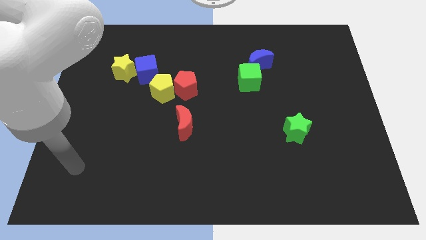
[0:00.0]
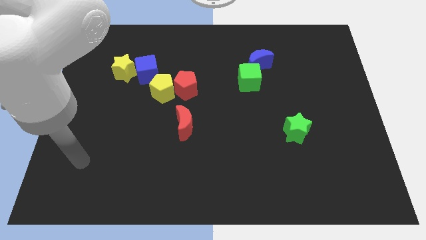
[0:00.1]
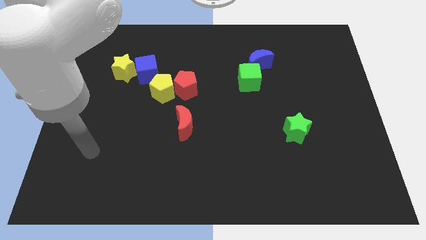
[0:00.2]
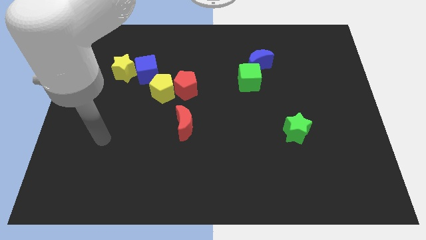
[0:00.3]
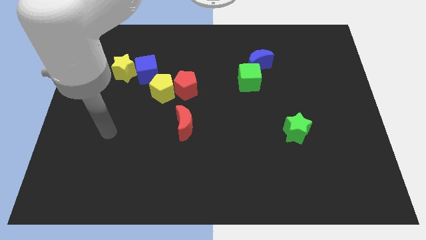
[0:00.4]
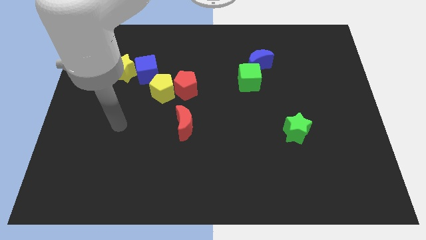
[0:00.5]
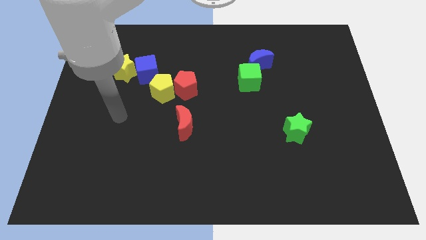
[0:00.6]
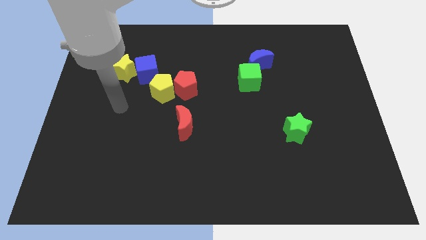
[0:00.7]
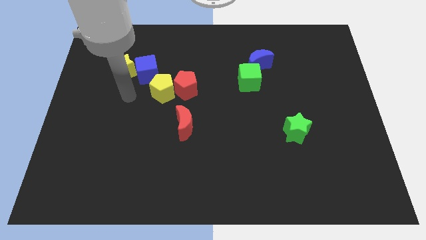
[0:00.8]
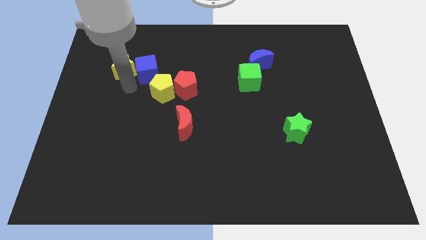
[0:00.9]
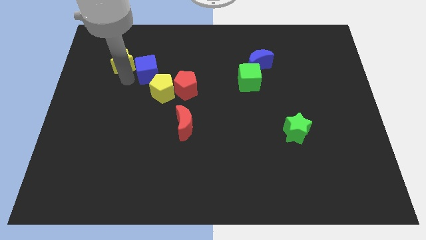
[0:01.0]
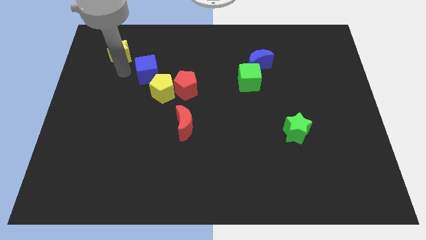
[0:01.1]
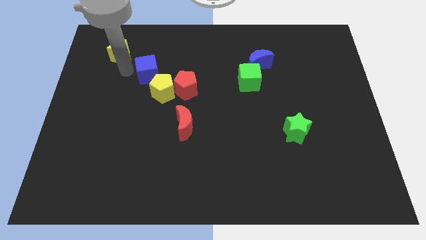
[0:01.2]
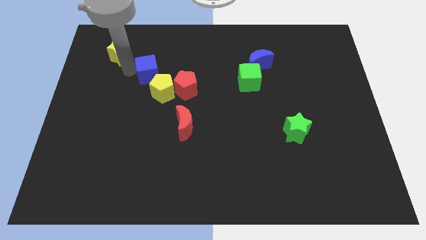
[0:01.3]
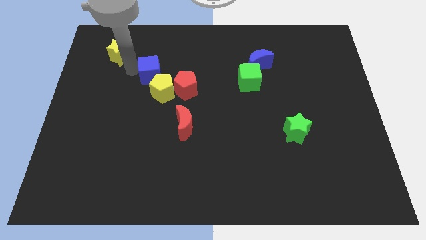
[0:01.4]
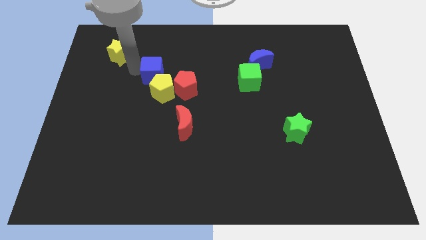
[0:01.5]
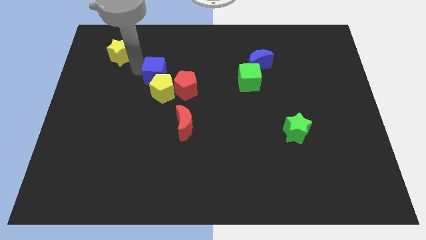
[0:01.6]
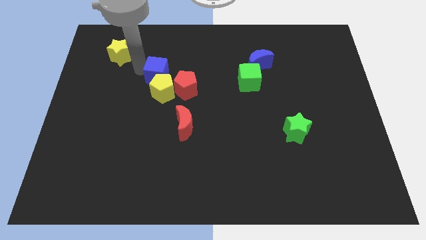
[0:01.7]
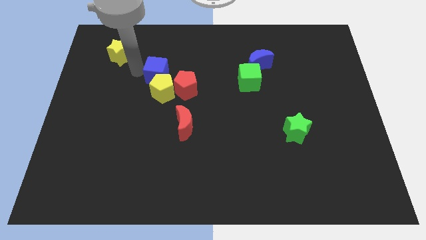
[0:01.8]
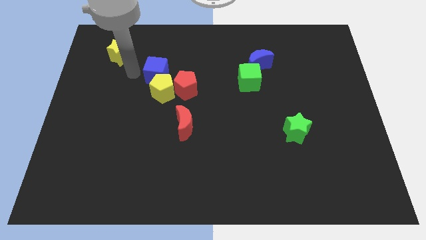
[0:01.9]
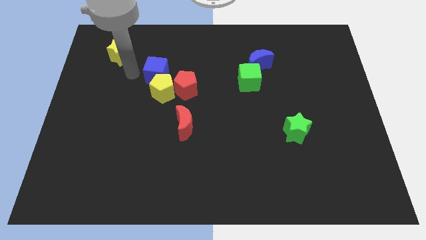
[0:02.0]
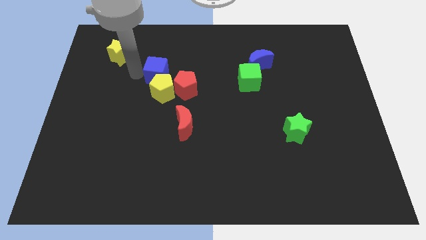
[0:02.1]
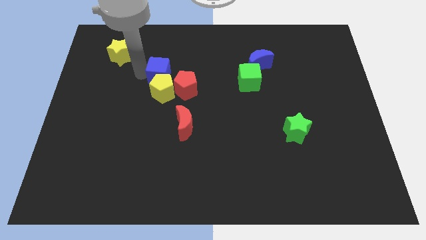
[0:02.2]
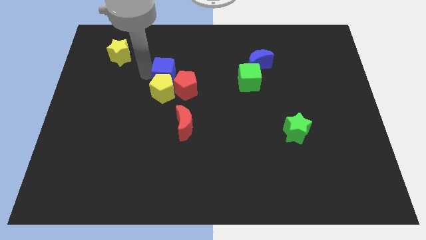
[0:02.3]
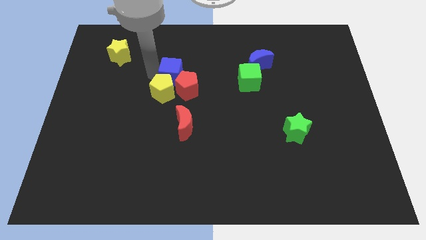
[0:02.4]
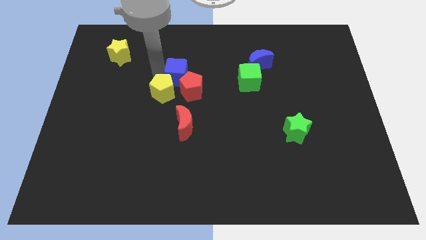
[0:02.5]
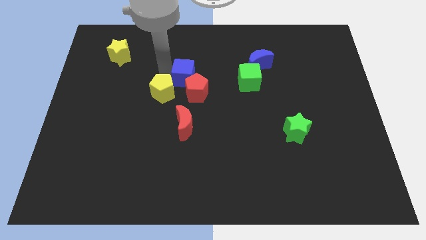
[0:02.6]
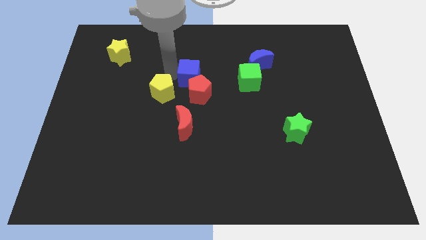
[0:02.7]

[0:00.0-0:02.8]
move the blue cube a bit downwards and then to the right

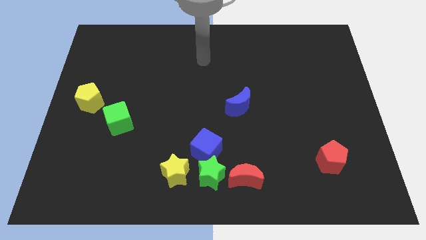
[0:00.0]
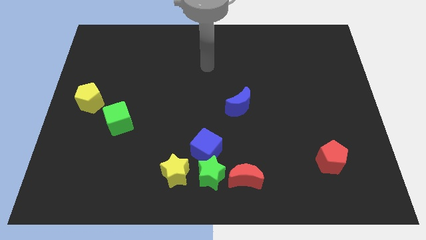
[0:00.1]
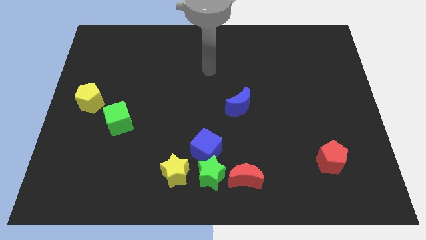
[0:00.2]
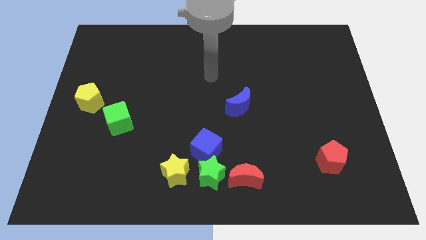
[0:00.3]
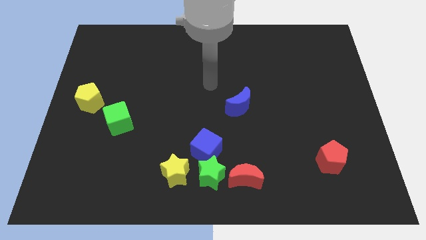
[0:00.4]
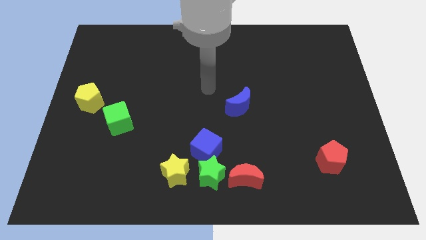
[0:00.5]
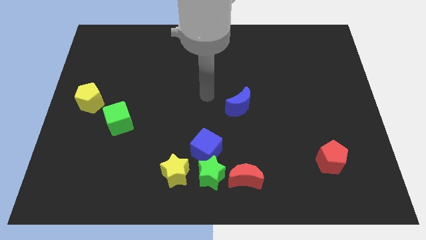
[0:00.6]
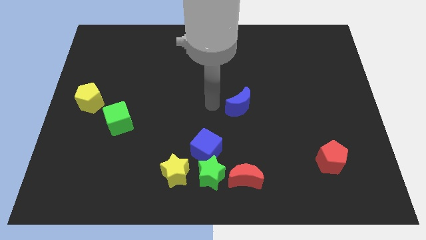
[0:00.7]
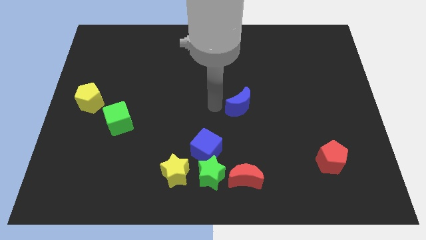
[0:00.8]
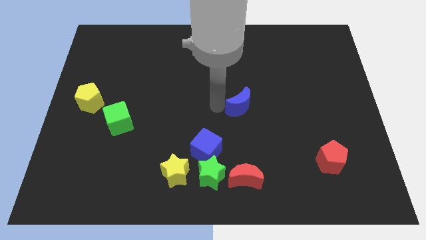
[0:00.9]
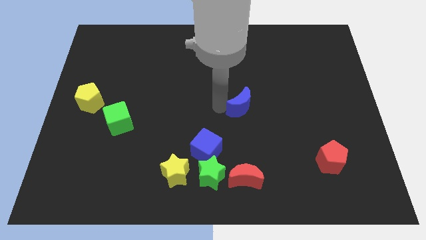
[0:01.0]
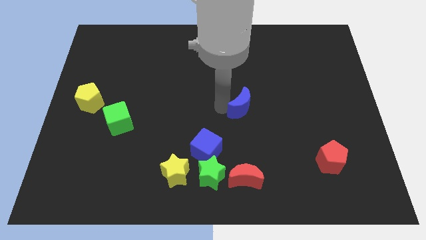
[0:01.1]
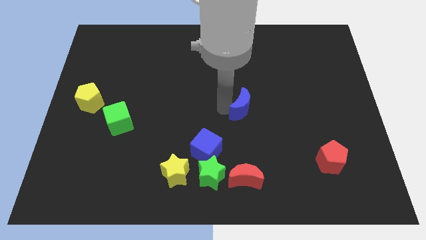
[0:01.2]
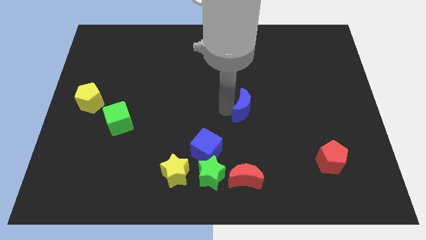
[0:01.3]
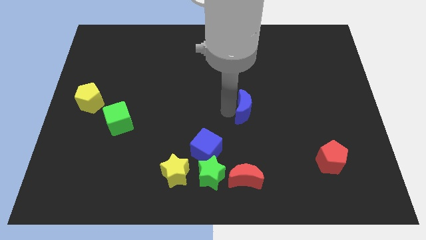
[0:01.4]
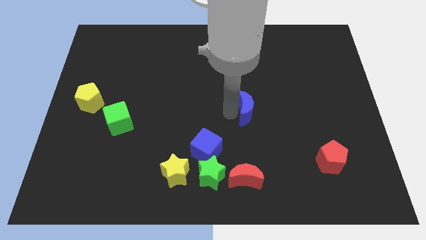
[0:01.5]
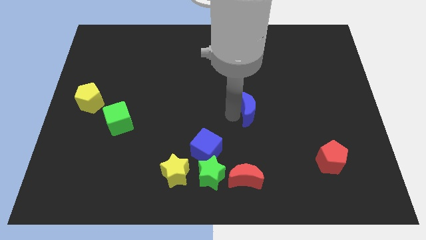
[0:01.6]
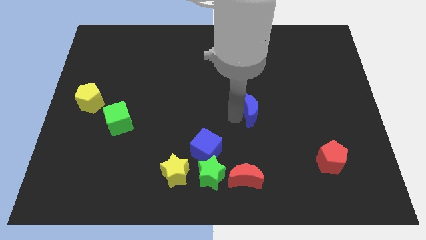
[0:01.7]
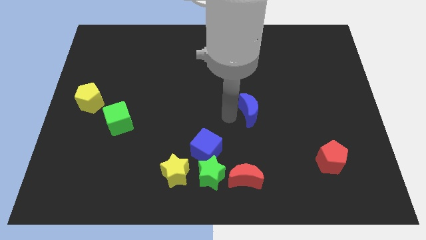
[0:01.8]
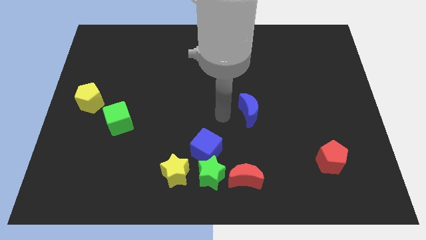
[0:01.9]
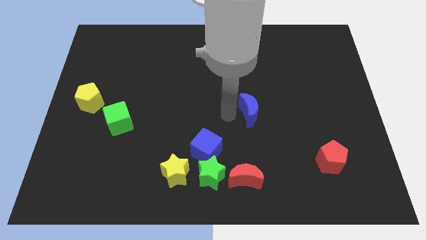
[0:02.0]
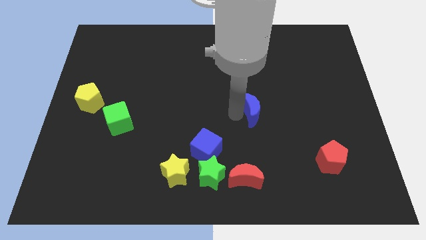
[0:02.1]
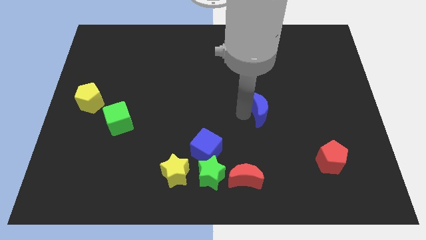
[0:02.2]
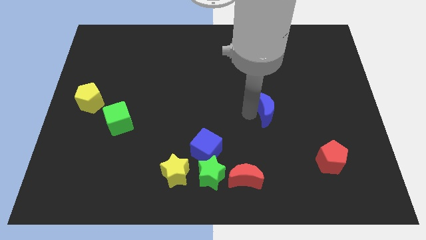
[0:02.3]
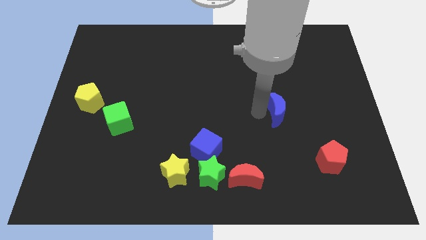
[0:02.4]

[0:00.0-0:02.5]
move the blue moon a little bit right

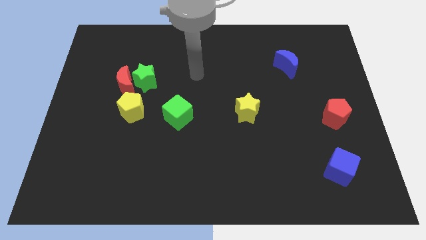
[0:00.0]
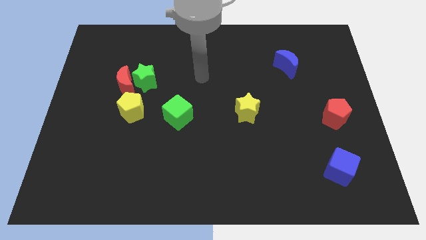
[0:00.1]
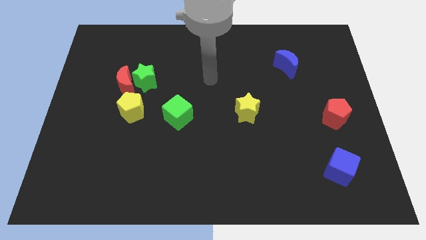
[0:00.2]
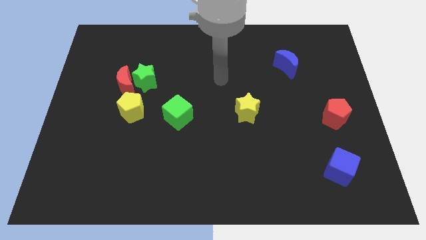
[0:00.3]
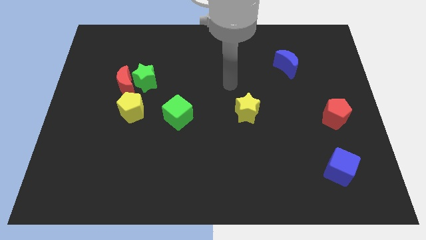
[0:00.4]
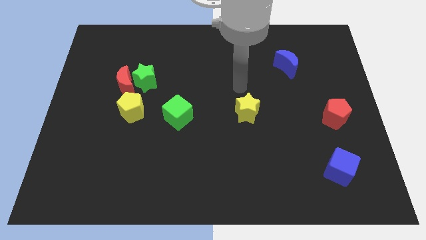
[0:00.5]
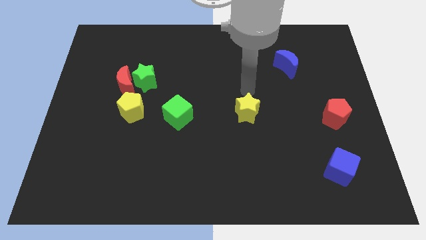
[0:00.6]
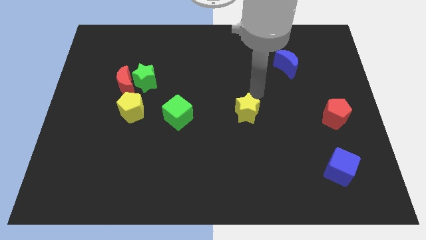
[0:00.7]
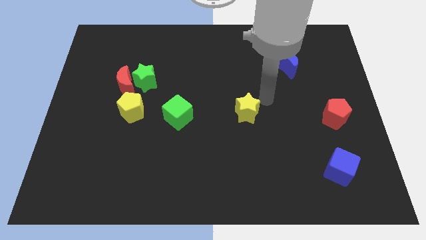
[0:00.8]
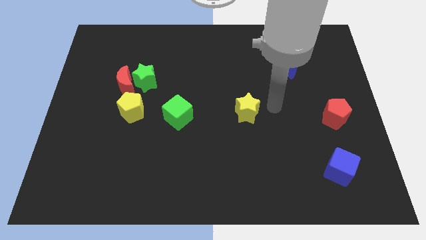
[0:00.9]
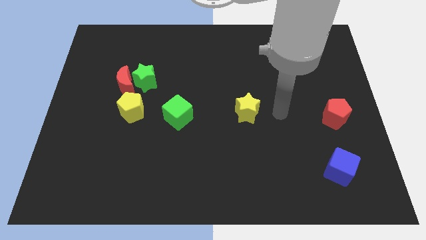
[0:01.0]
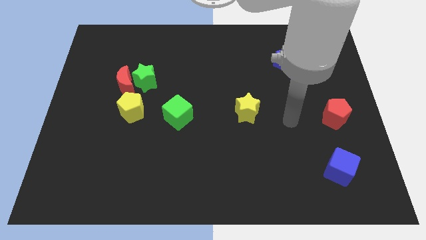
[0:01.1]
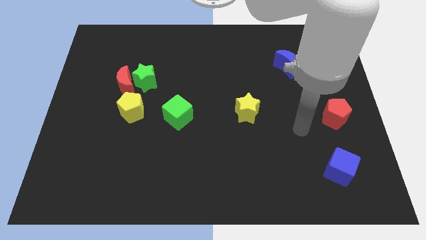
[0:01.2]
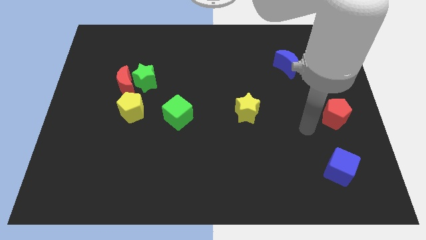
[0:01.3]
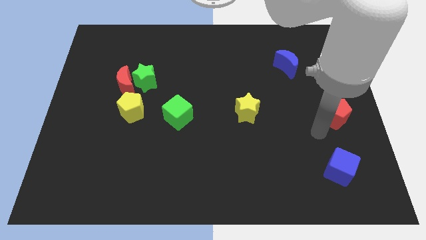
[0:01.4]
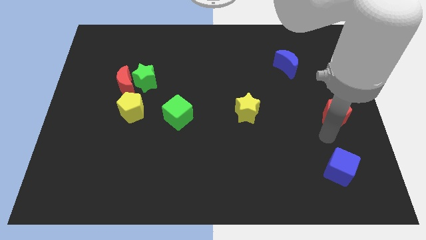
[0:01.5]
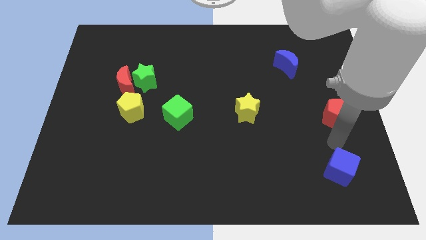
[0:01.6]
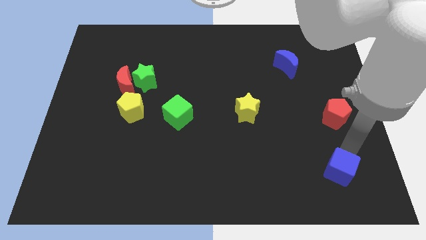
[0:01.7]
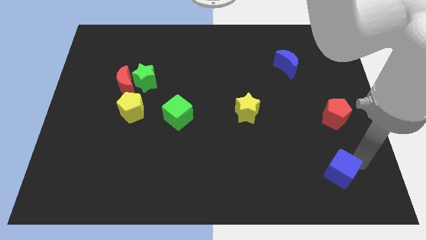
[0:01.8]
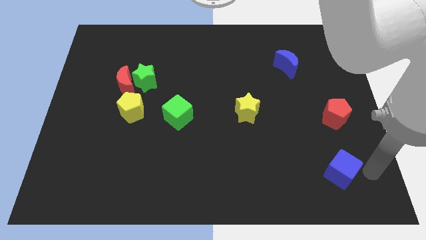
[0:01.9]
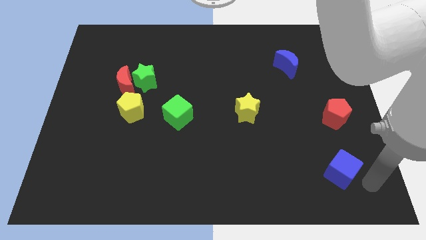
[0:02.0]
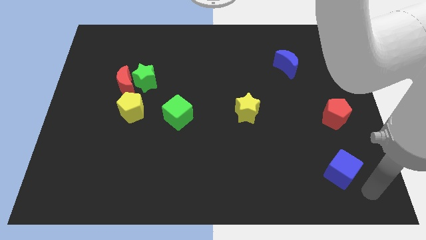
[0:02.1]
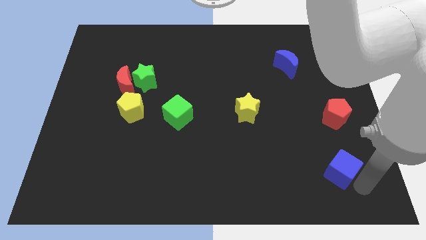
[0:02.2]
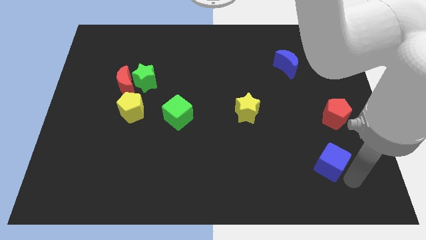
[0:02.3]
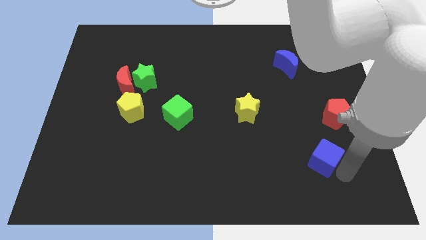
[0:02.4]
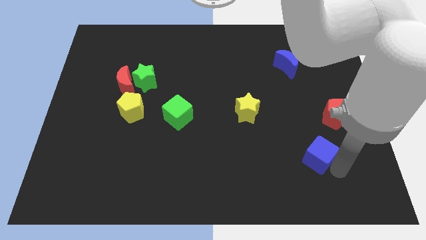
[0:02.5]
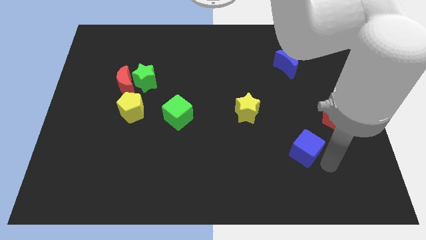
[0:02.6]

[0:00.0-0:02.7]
slightly push the blue cube up and left
